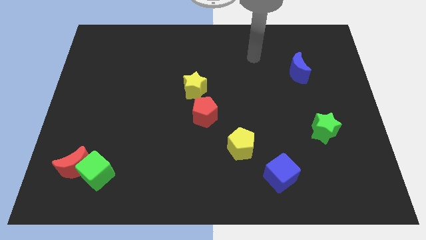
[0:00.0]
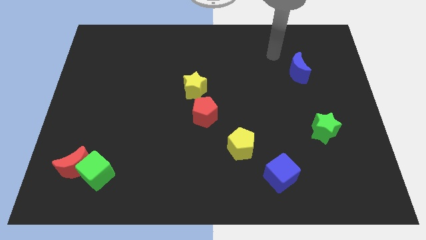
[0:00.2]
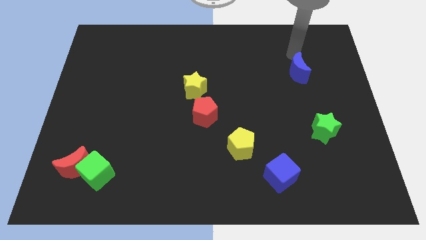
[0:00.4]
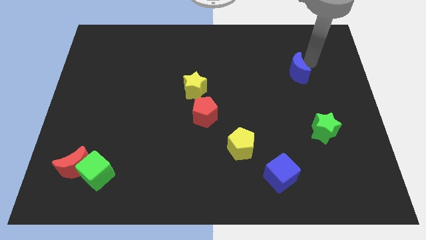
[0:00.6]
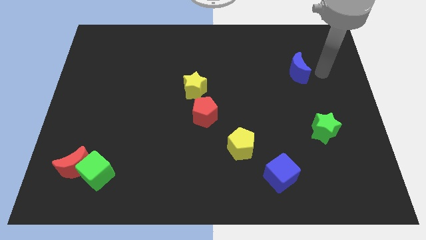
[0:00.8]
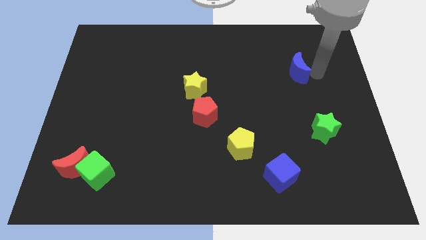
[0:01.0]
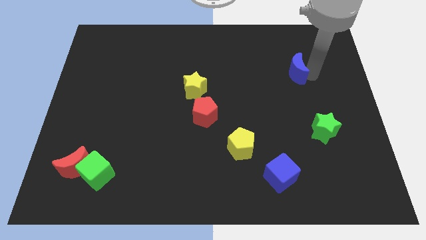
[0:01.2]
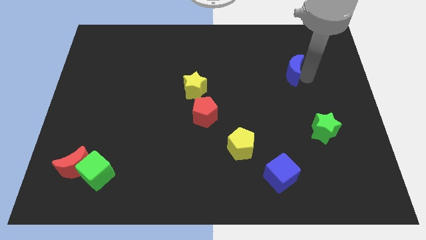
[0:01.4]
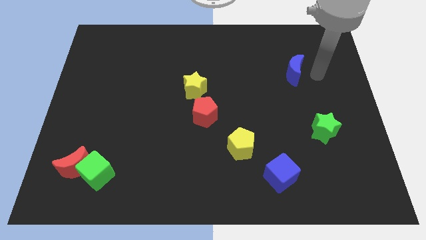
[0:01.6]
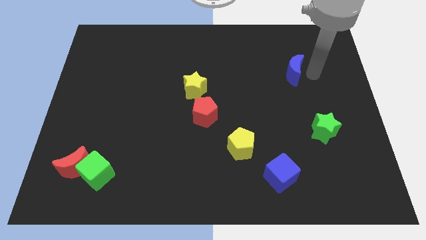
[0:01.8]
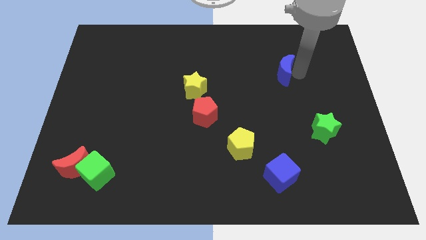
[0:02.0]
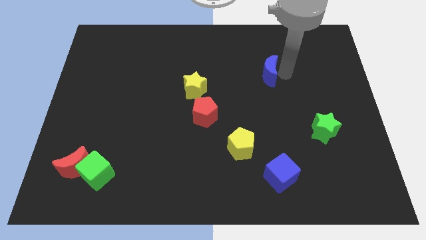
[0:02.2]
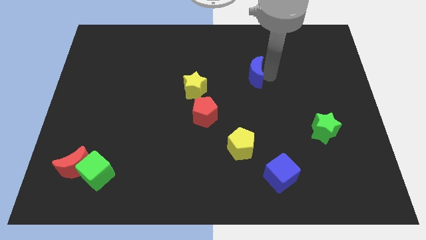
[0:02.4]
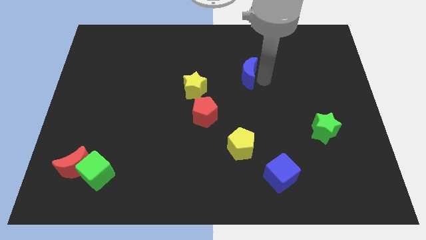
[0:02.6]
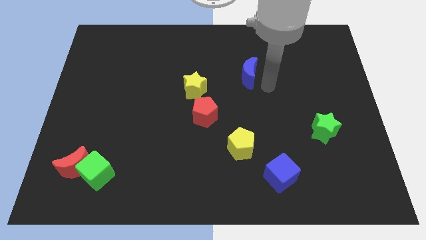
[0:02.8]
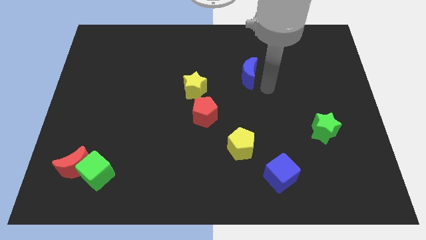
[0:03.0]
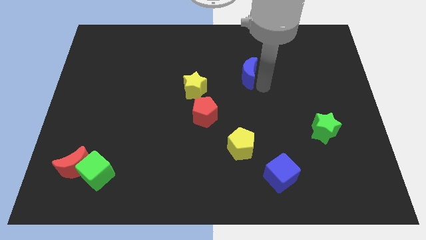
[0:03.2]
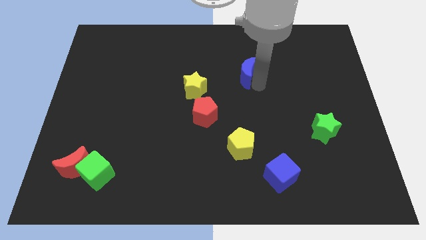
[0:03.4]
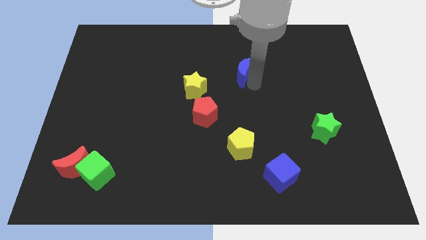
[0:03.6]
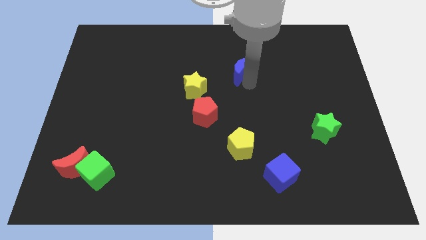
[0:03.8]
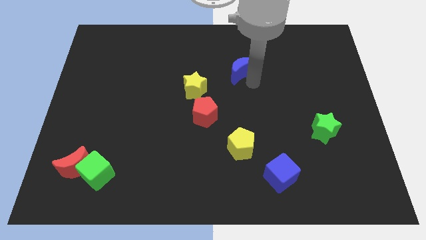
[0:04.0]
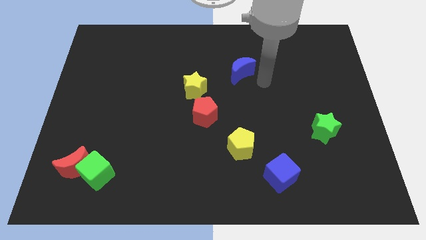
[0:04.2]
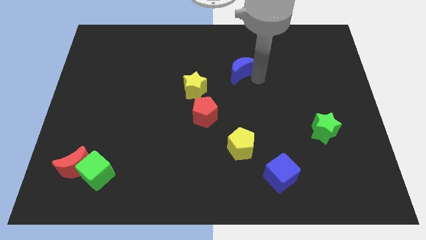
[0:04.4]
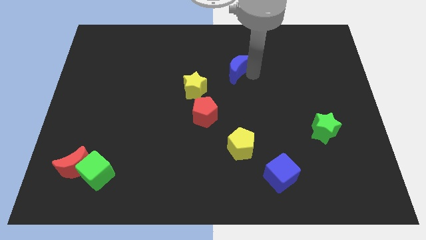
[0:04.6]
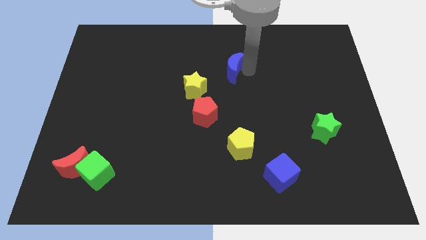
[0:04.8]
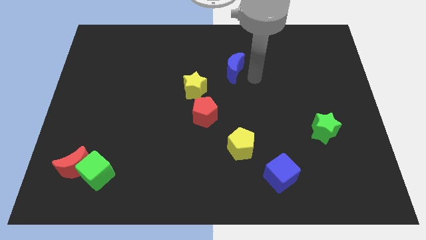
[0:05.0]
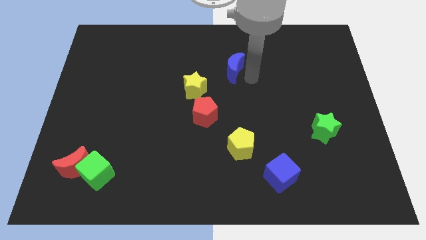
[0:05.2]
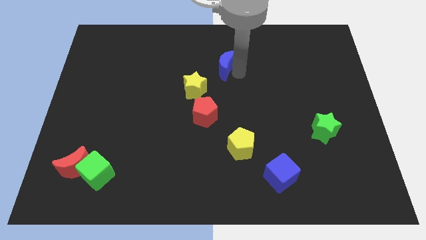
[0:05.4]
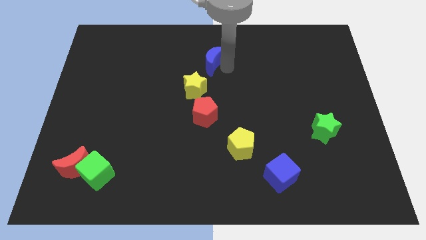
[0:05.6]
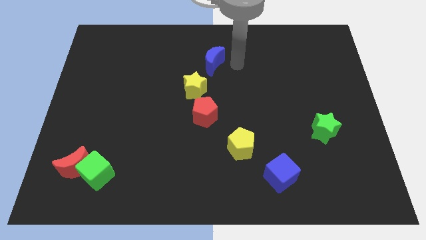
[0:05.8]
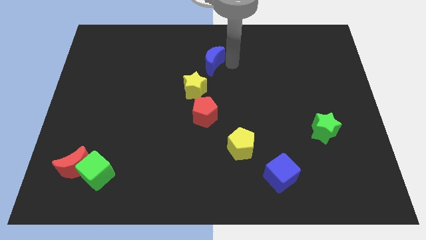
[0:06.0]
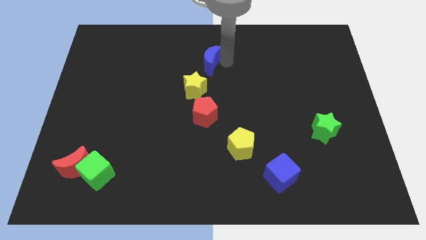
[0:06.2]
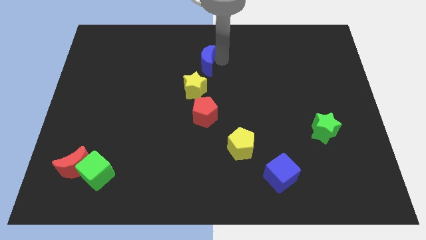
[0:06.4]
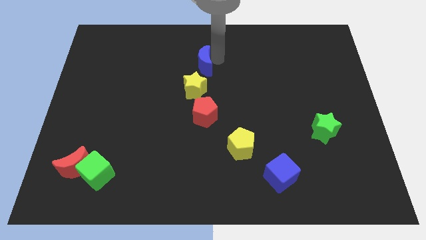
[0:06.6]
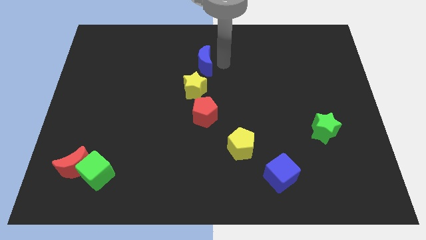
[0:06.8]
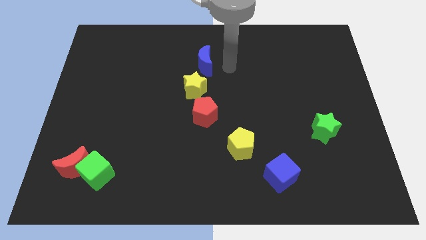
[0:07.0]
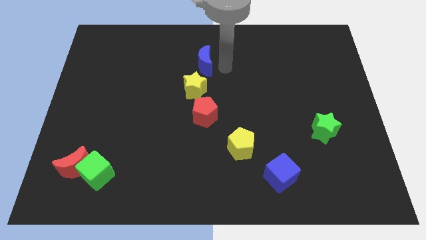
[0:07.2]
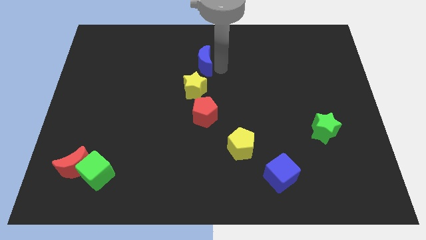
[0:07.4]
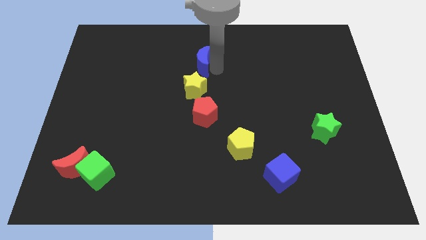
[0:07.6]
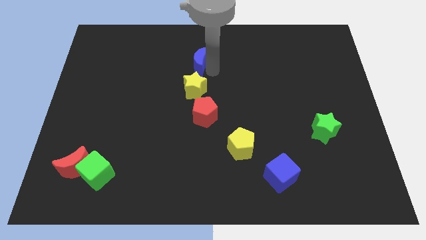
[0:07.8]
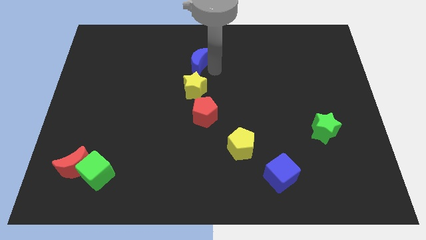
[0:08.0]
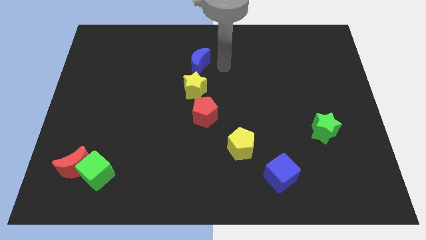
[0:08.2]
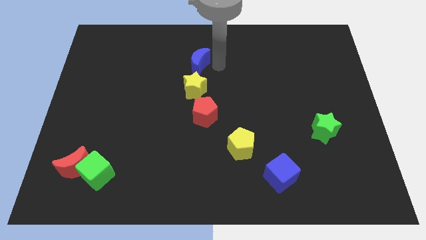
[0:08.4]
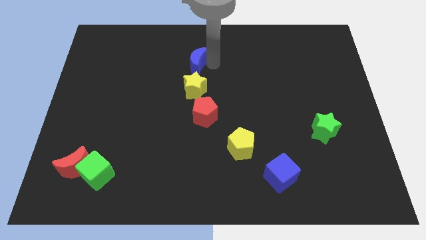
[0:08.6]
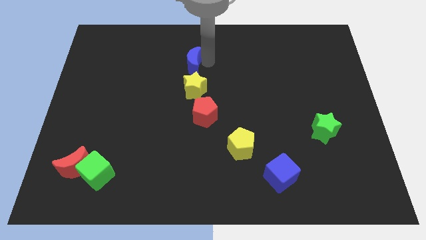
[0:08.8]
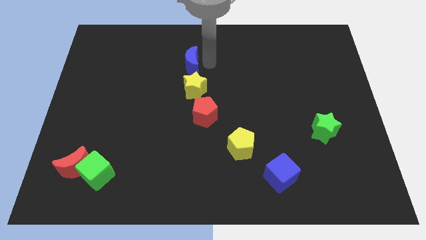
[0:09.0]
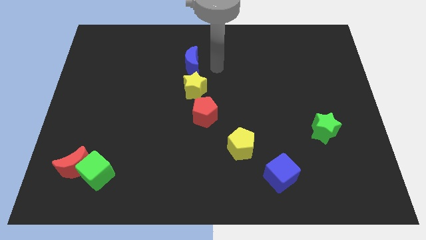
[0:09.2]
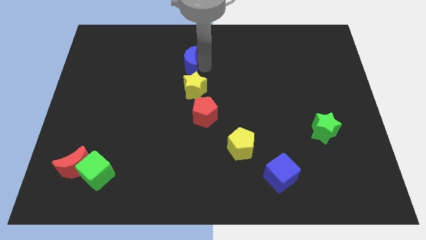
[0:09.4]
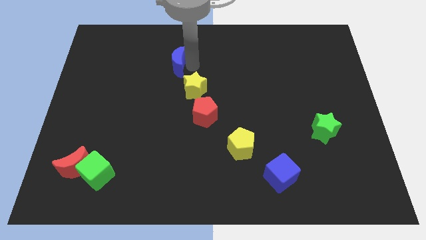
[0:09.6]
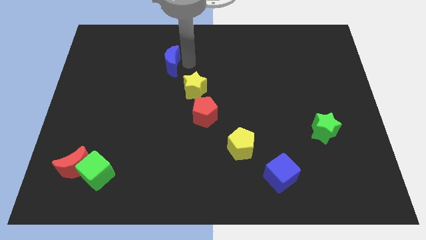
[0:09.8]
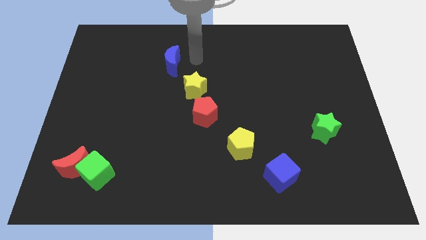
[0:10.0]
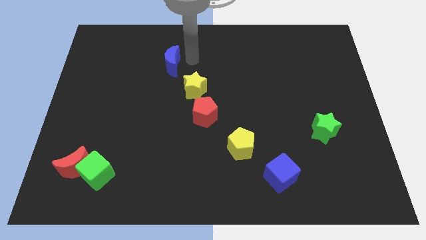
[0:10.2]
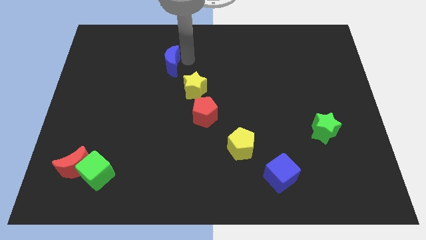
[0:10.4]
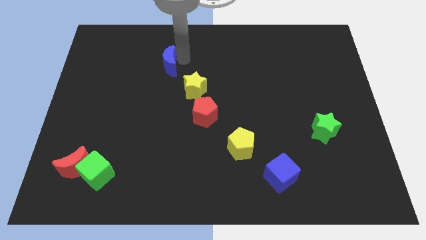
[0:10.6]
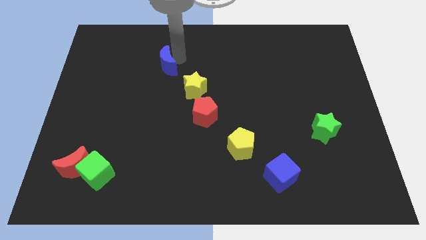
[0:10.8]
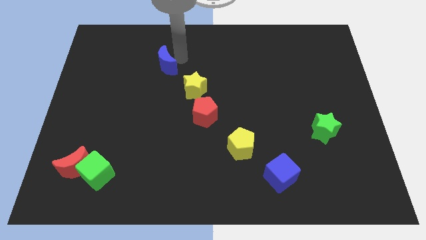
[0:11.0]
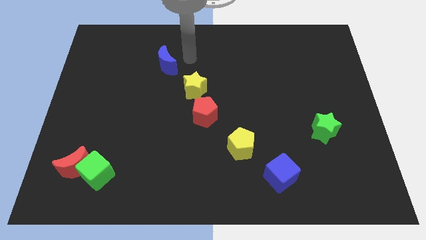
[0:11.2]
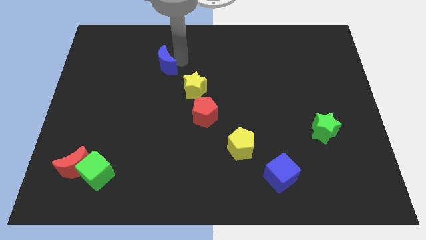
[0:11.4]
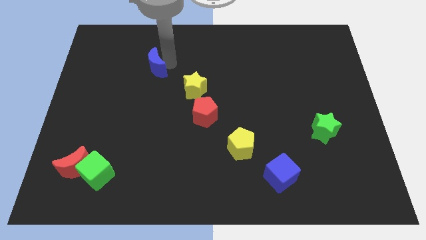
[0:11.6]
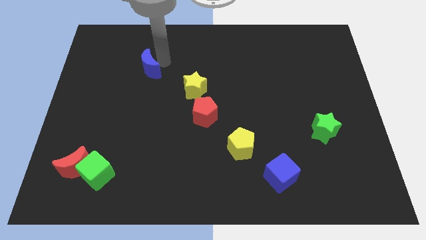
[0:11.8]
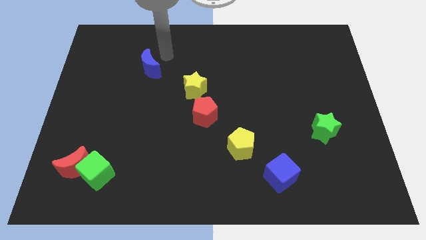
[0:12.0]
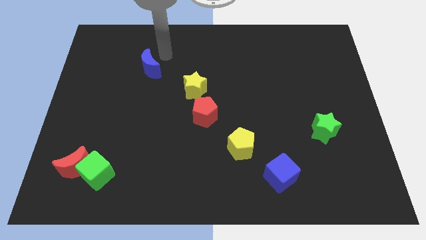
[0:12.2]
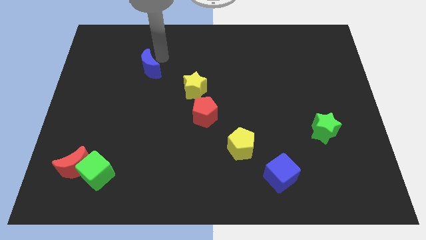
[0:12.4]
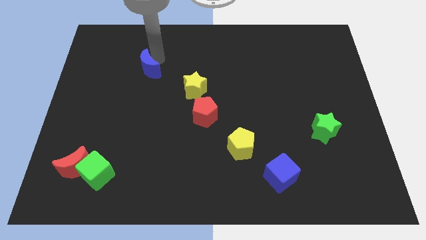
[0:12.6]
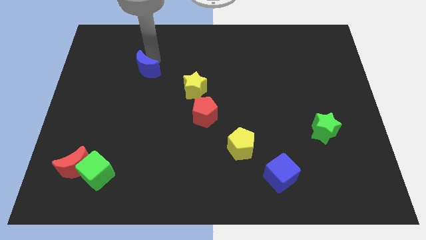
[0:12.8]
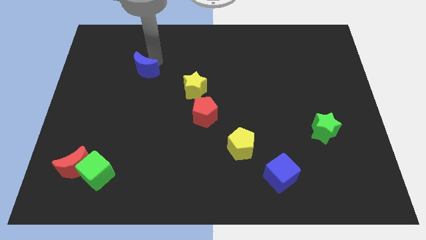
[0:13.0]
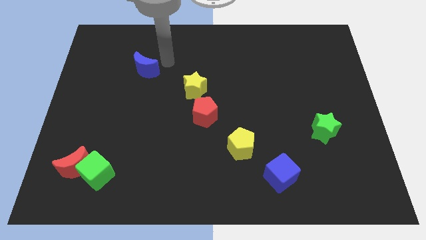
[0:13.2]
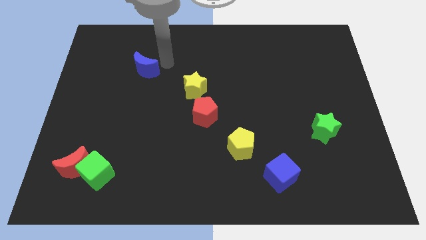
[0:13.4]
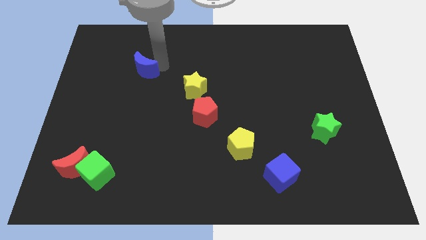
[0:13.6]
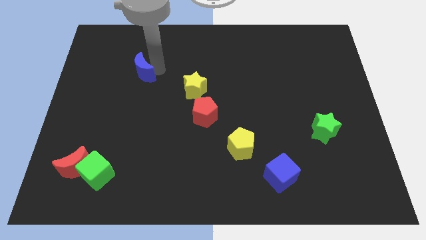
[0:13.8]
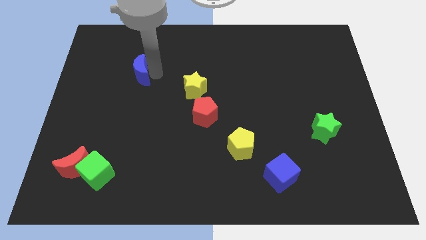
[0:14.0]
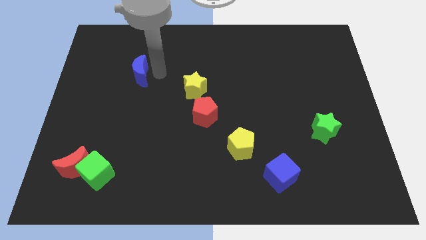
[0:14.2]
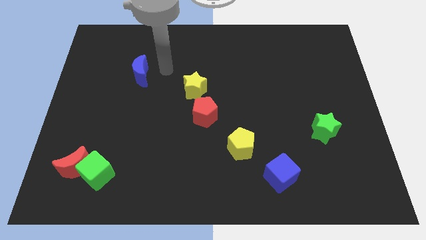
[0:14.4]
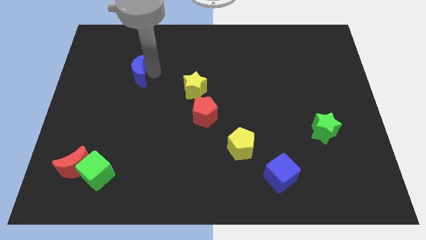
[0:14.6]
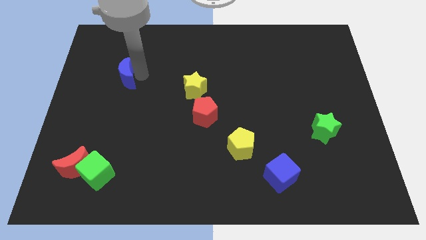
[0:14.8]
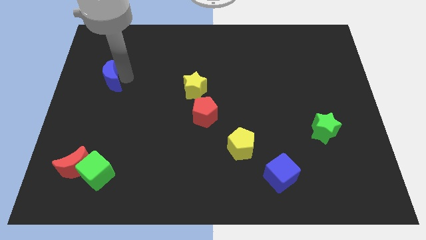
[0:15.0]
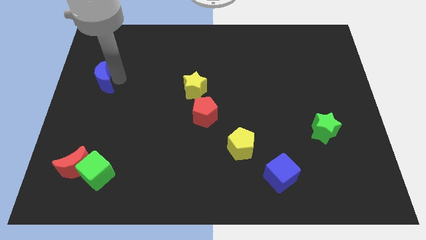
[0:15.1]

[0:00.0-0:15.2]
move the blue moon to the left side
